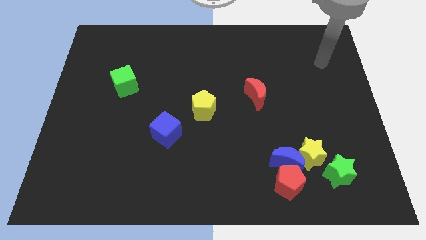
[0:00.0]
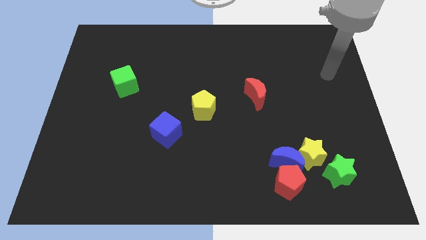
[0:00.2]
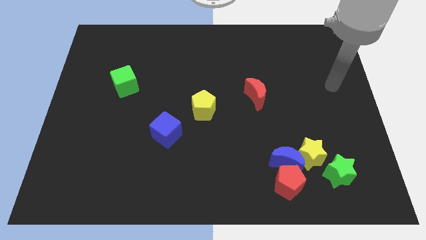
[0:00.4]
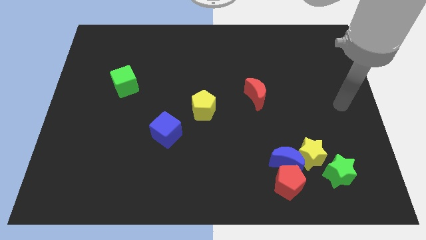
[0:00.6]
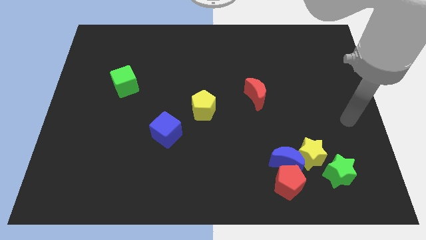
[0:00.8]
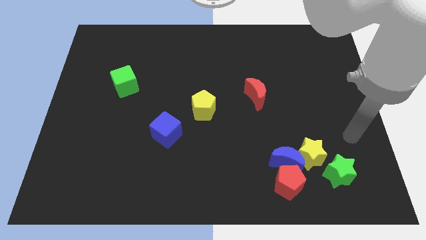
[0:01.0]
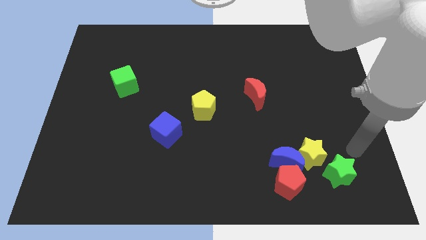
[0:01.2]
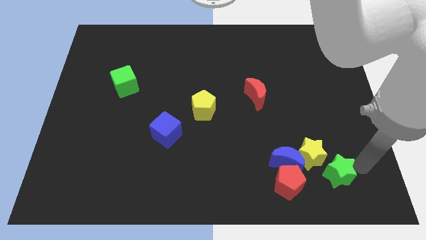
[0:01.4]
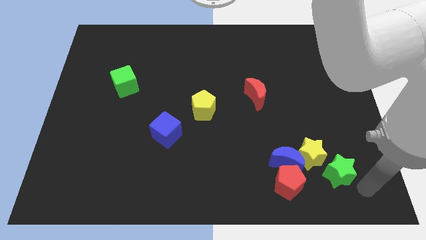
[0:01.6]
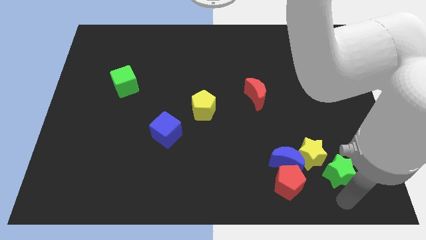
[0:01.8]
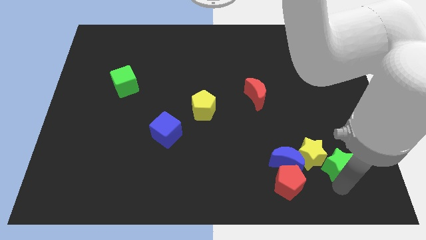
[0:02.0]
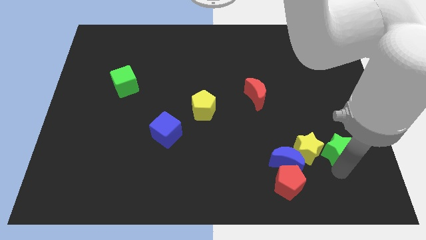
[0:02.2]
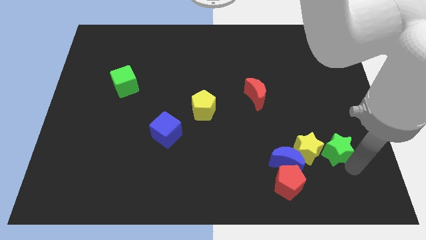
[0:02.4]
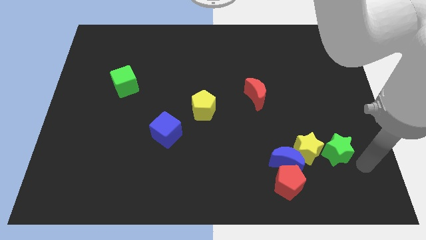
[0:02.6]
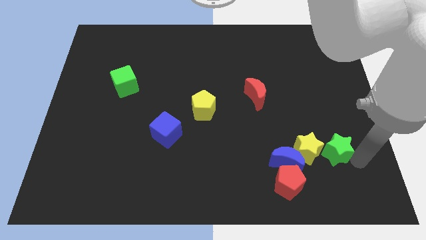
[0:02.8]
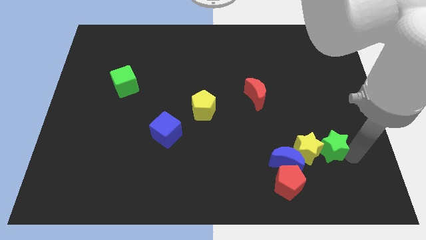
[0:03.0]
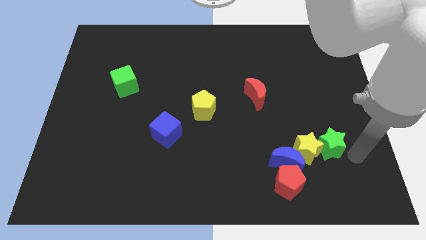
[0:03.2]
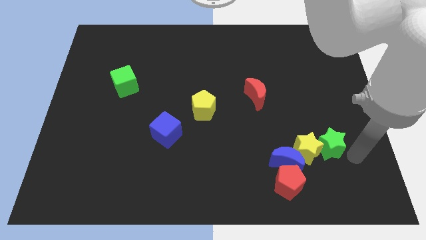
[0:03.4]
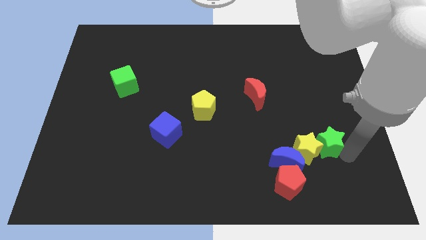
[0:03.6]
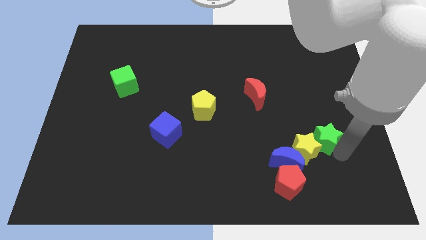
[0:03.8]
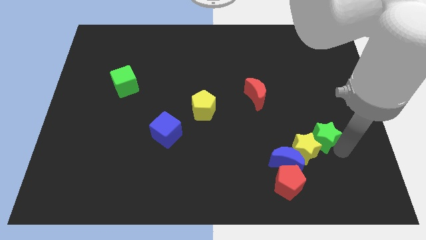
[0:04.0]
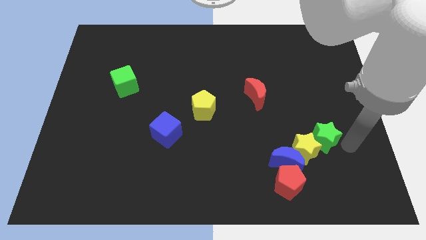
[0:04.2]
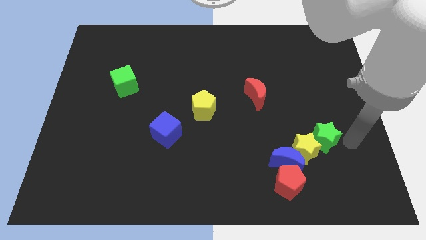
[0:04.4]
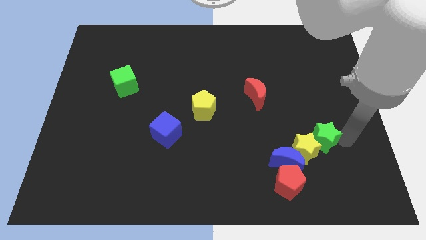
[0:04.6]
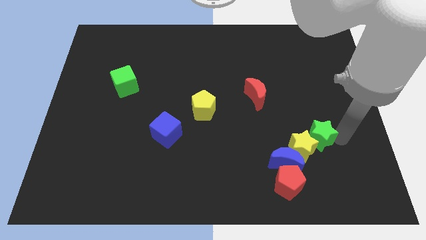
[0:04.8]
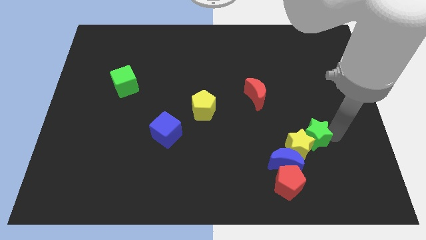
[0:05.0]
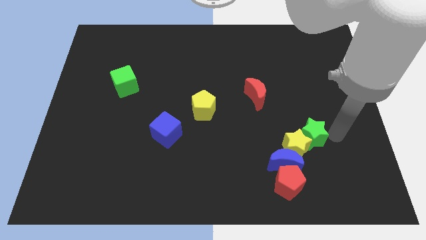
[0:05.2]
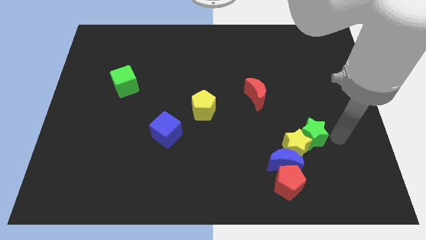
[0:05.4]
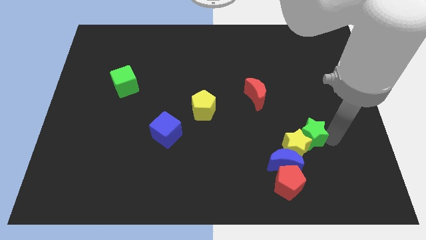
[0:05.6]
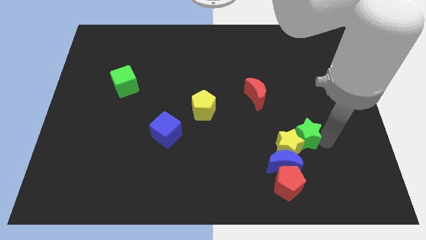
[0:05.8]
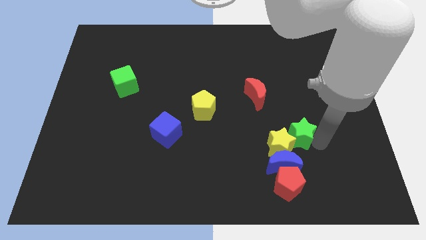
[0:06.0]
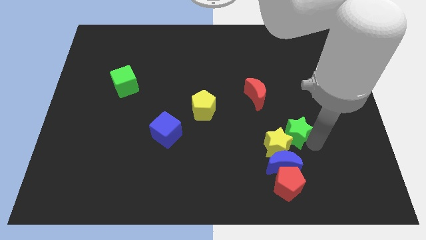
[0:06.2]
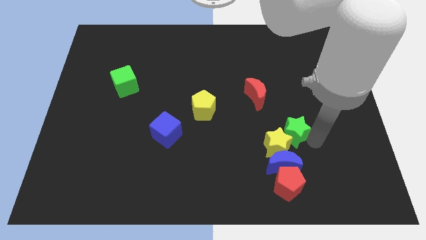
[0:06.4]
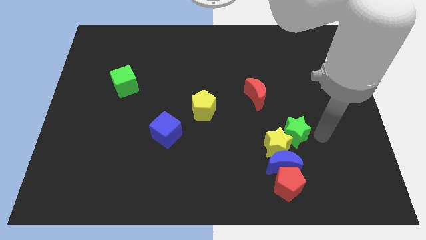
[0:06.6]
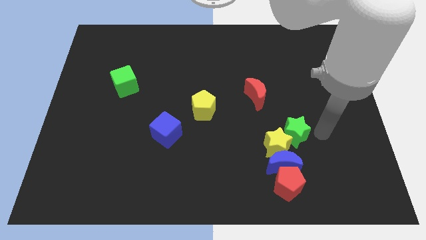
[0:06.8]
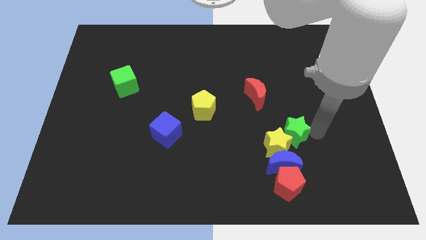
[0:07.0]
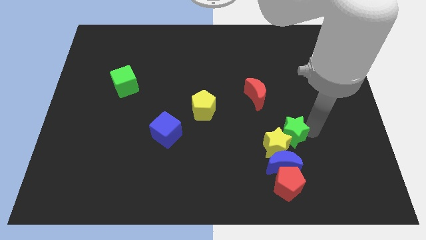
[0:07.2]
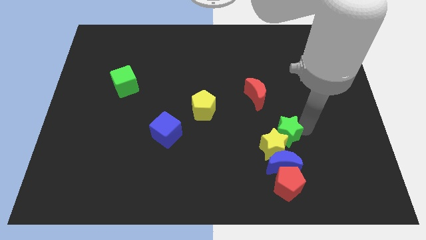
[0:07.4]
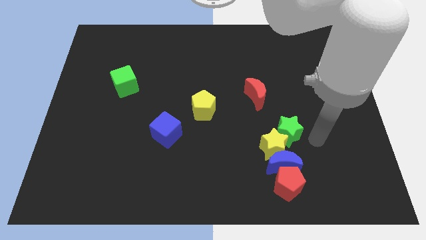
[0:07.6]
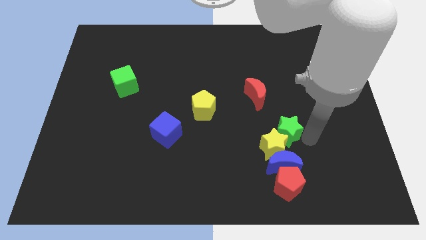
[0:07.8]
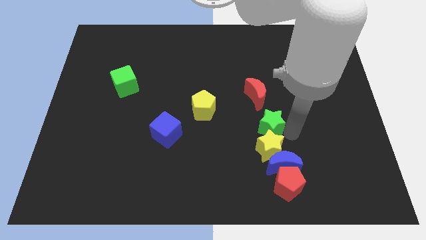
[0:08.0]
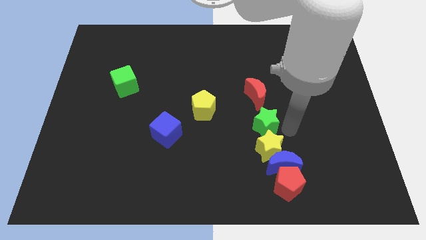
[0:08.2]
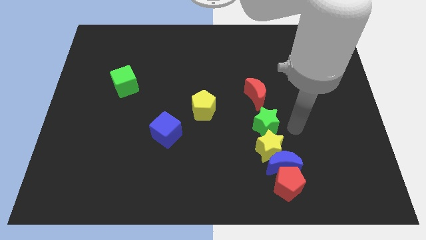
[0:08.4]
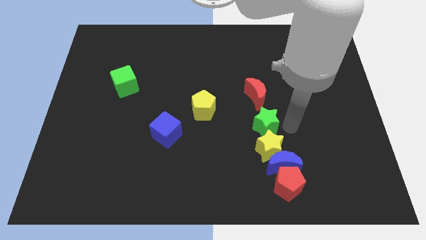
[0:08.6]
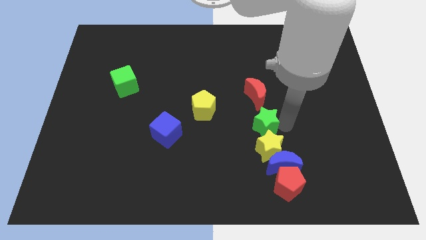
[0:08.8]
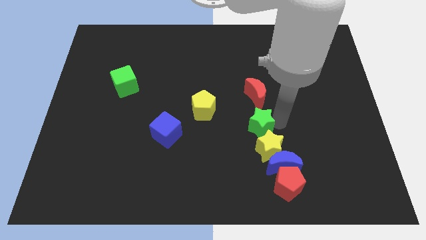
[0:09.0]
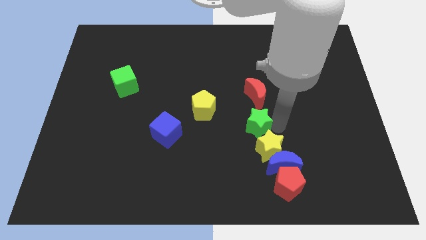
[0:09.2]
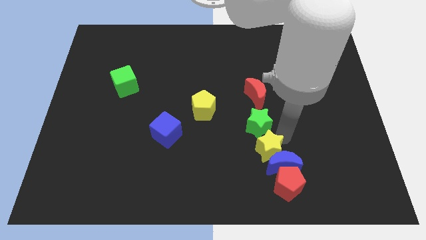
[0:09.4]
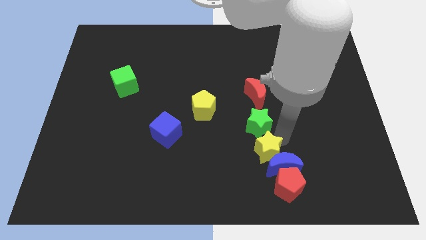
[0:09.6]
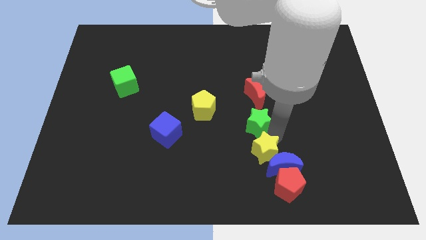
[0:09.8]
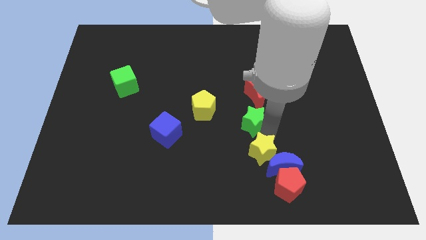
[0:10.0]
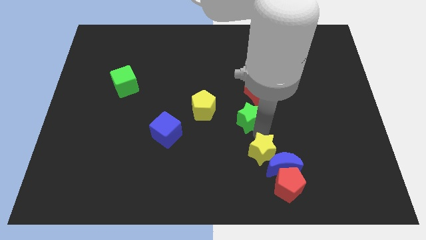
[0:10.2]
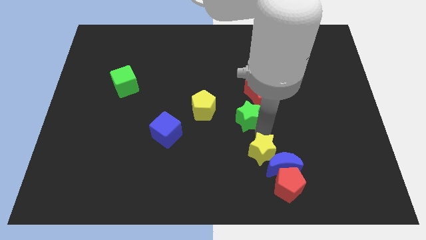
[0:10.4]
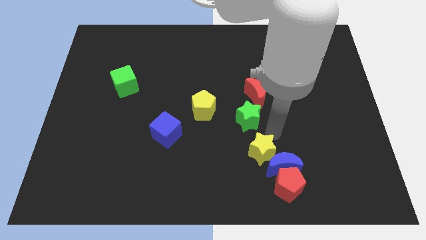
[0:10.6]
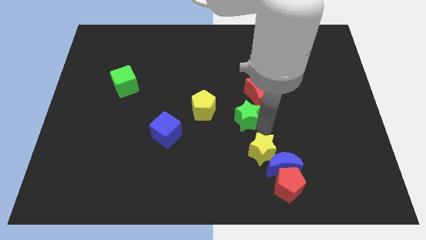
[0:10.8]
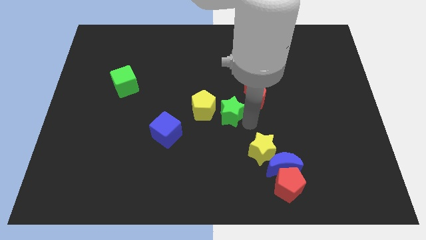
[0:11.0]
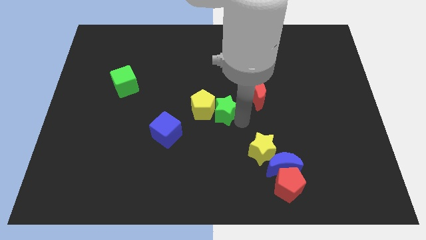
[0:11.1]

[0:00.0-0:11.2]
put the green star to the top right side of the yellow pentagon
